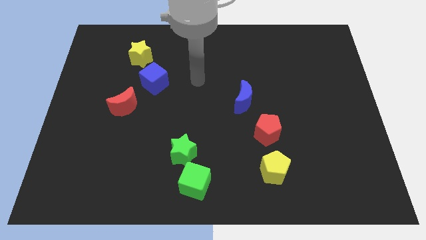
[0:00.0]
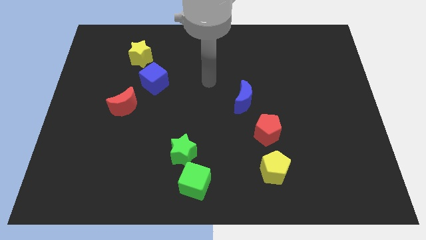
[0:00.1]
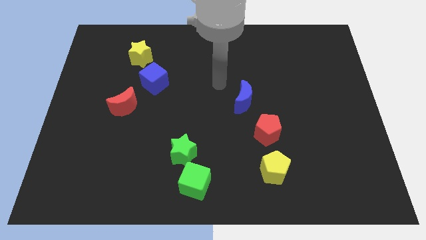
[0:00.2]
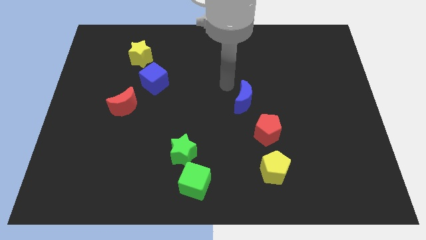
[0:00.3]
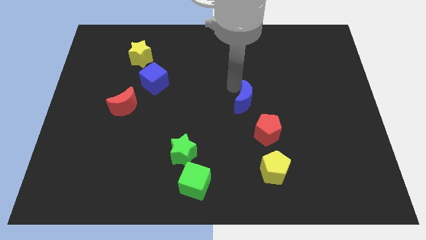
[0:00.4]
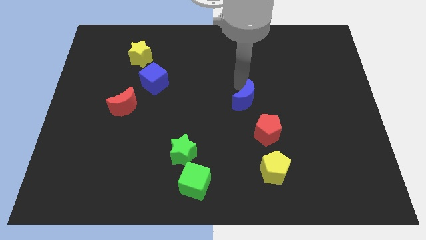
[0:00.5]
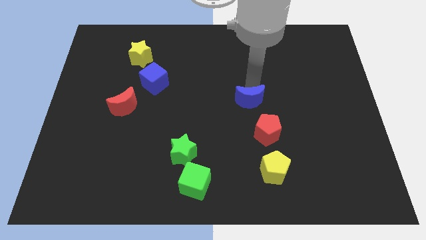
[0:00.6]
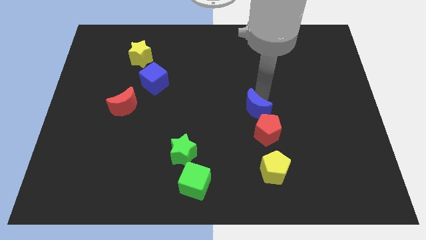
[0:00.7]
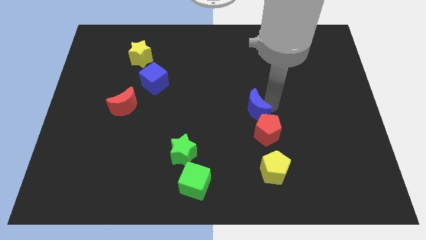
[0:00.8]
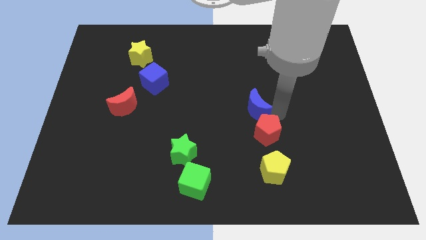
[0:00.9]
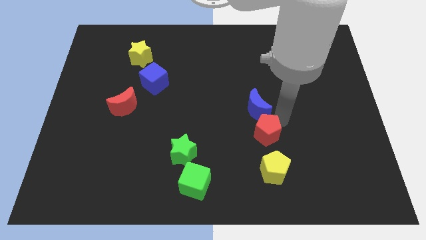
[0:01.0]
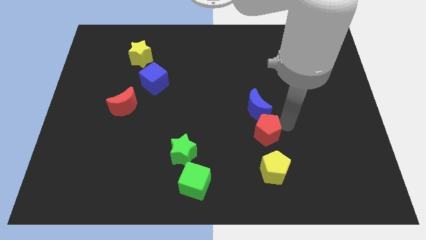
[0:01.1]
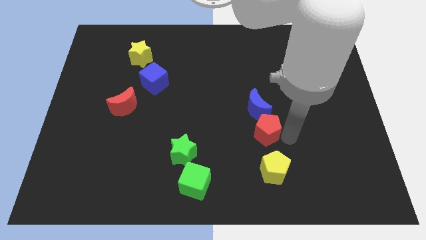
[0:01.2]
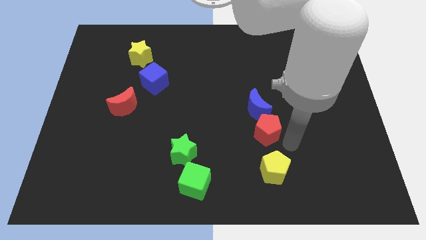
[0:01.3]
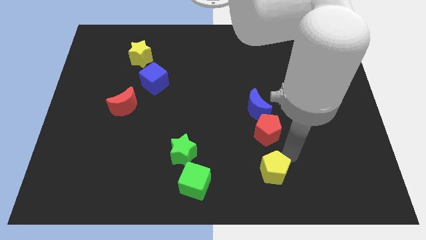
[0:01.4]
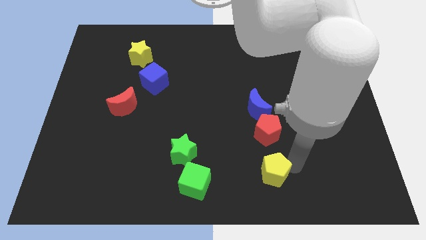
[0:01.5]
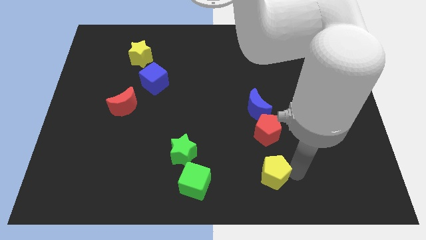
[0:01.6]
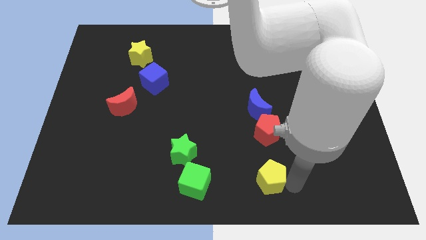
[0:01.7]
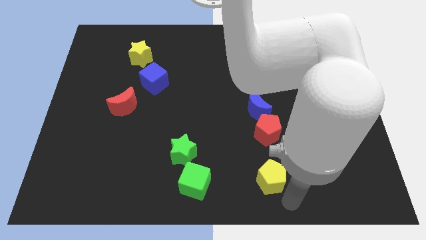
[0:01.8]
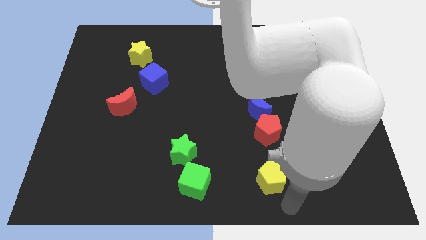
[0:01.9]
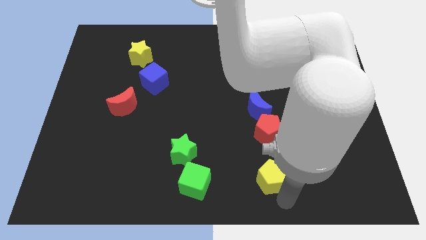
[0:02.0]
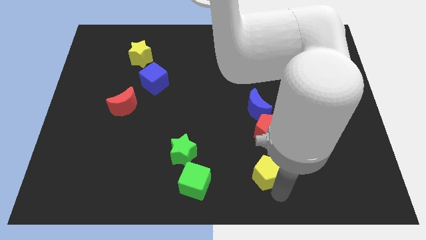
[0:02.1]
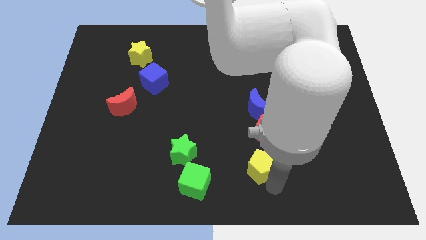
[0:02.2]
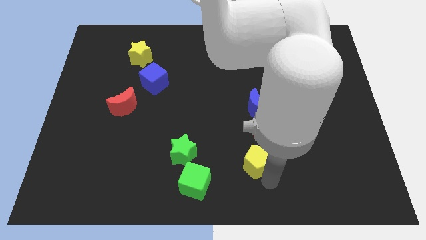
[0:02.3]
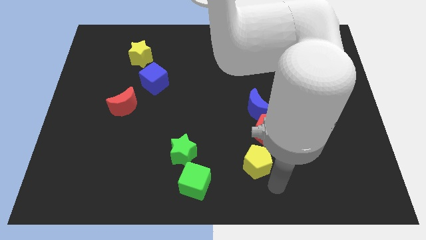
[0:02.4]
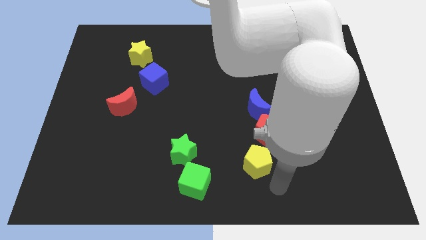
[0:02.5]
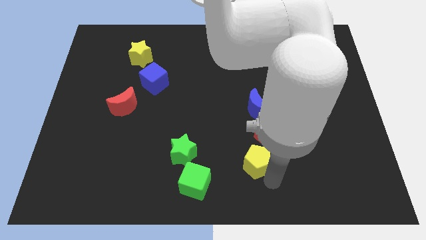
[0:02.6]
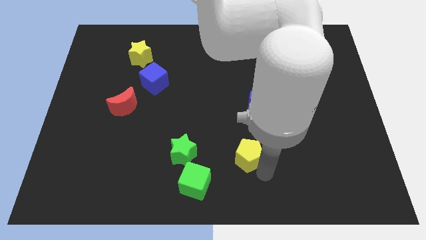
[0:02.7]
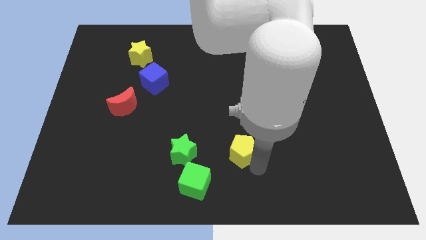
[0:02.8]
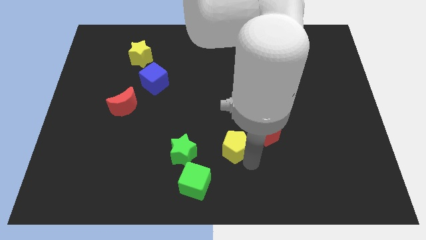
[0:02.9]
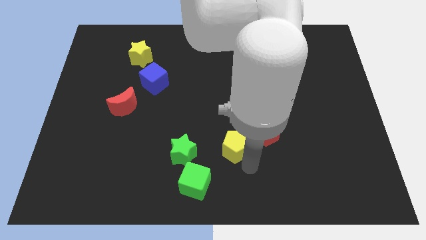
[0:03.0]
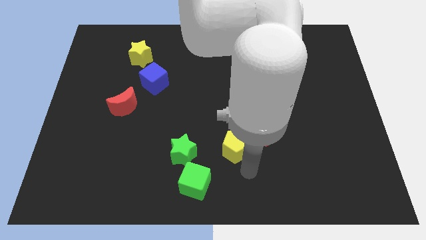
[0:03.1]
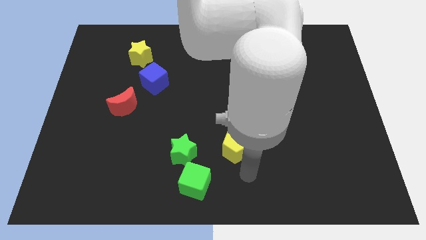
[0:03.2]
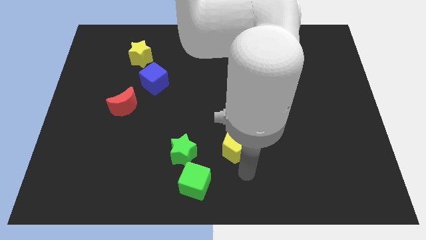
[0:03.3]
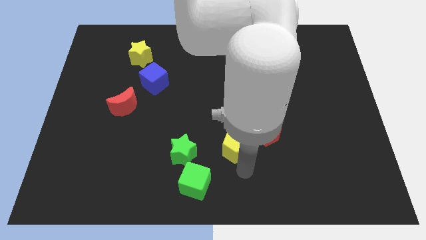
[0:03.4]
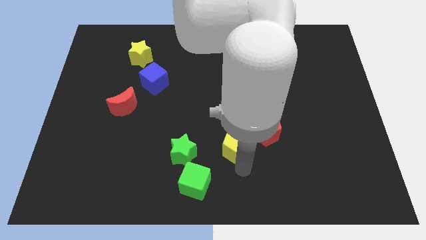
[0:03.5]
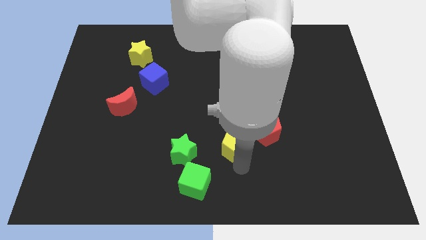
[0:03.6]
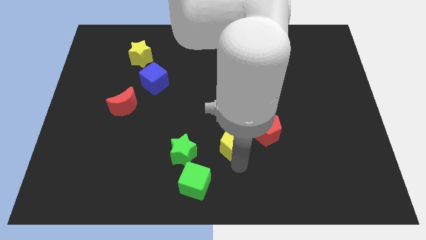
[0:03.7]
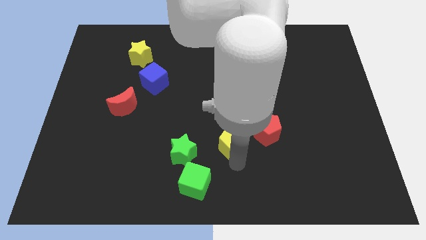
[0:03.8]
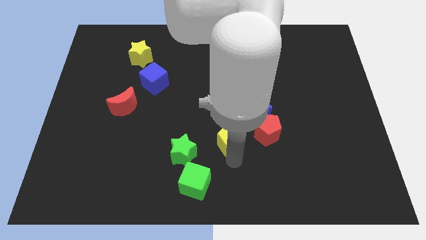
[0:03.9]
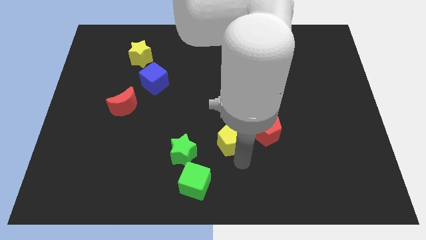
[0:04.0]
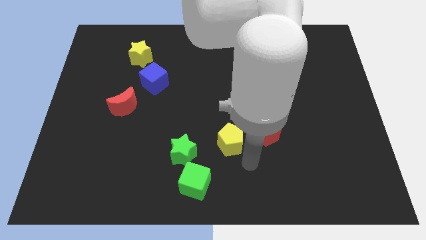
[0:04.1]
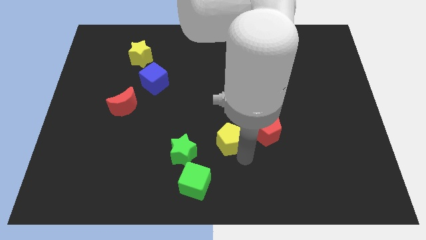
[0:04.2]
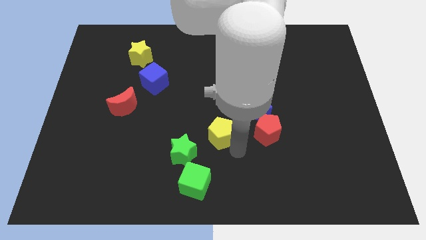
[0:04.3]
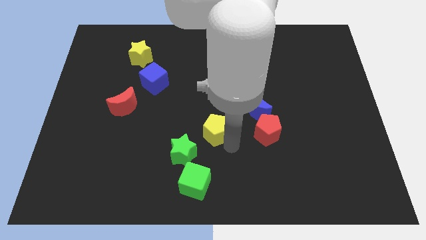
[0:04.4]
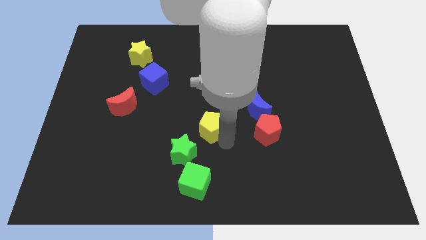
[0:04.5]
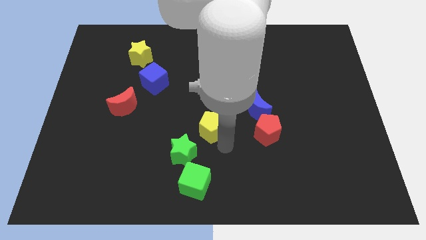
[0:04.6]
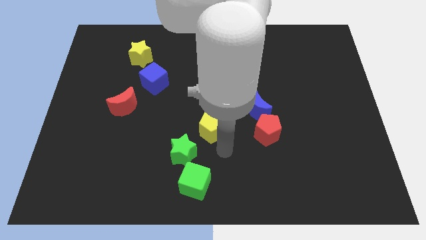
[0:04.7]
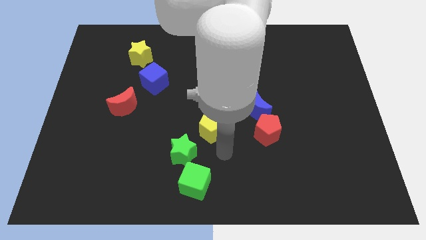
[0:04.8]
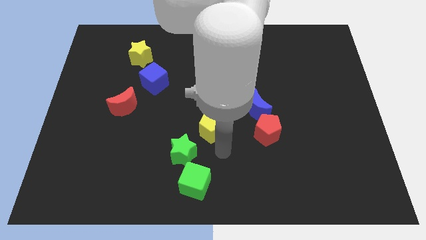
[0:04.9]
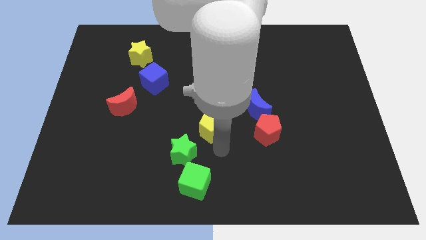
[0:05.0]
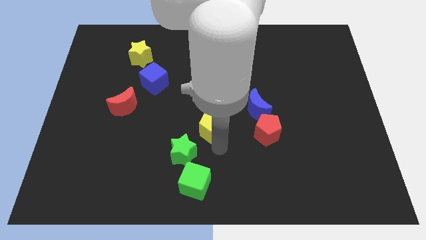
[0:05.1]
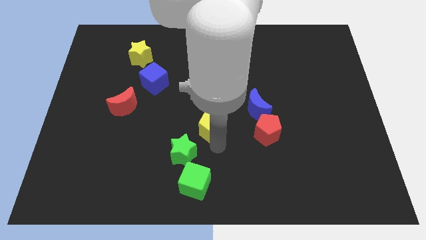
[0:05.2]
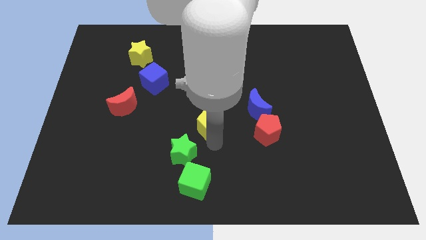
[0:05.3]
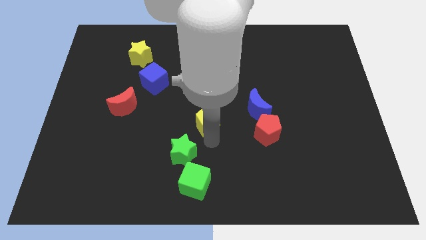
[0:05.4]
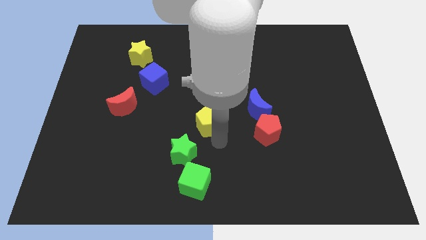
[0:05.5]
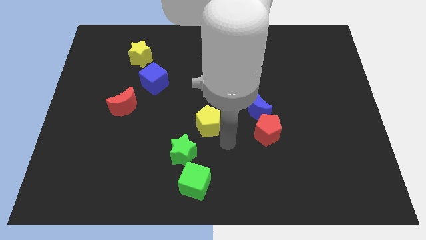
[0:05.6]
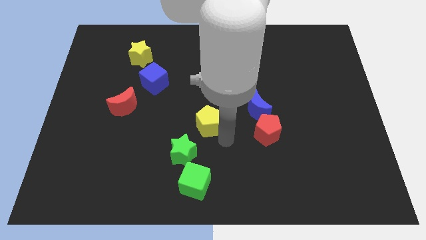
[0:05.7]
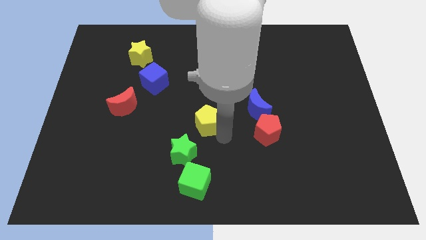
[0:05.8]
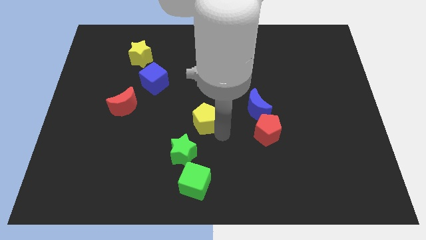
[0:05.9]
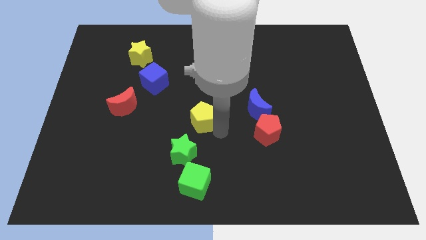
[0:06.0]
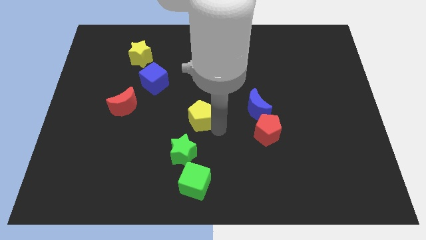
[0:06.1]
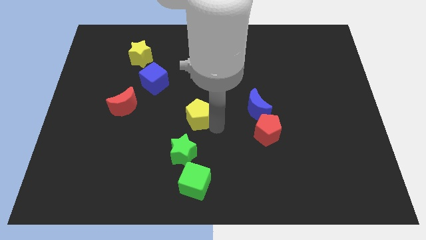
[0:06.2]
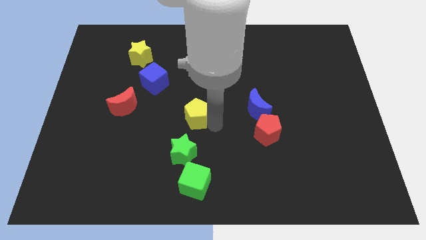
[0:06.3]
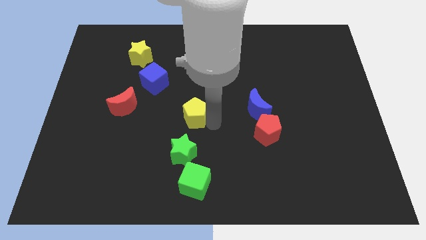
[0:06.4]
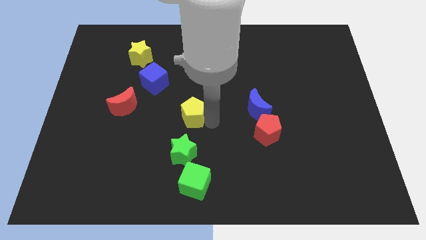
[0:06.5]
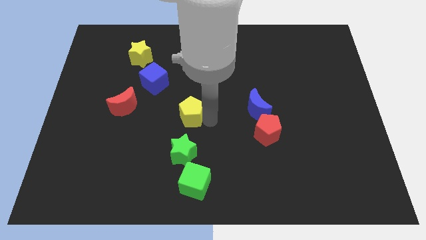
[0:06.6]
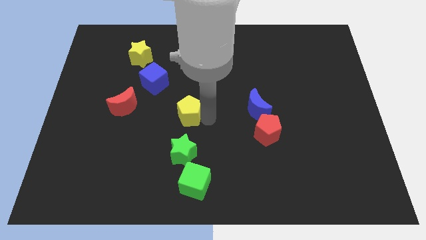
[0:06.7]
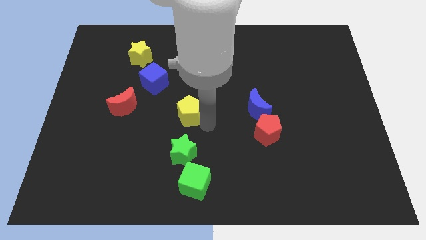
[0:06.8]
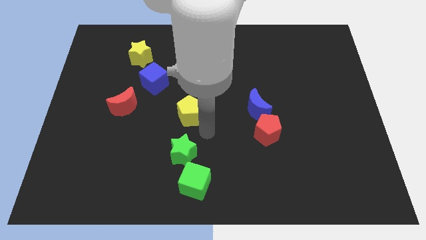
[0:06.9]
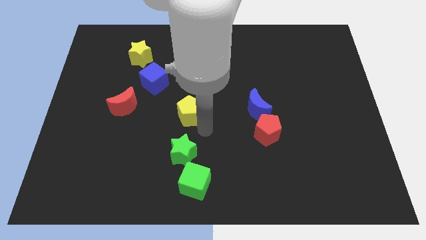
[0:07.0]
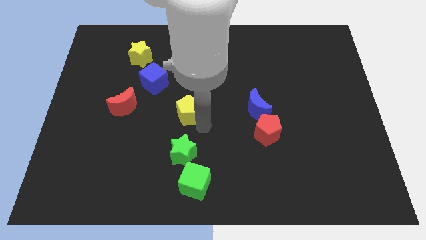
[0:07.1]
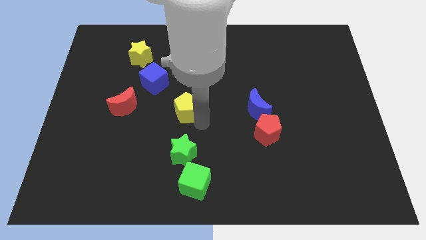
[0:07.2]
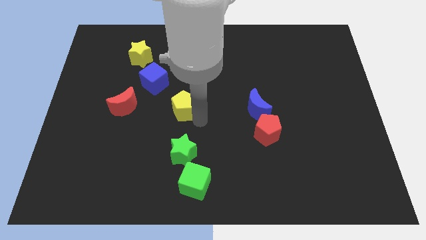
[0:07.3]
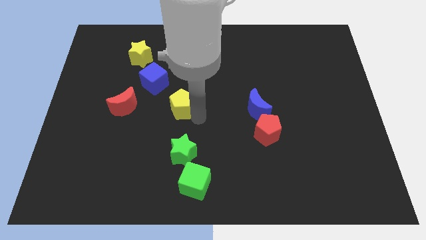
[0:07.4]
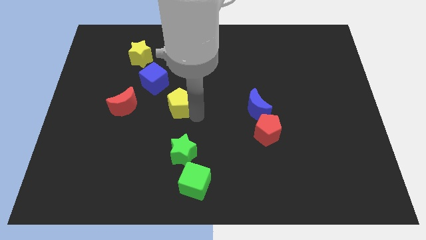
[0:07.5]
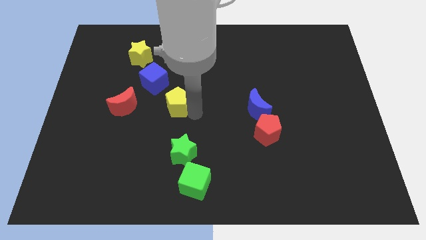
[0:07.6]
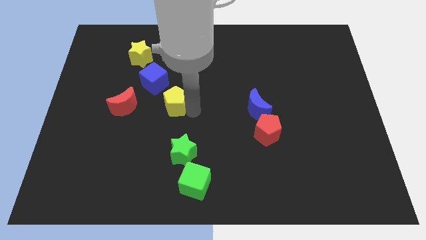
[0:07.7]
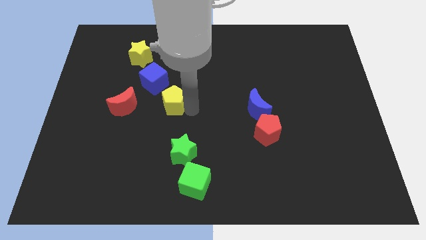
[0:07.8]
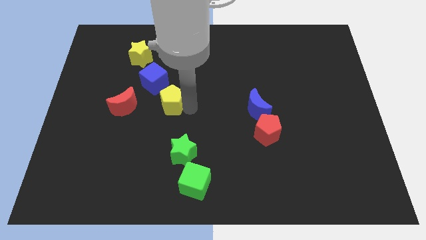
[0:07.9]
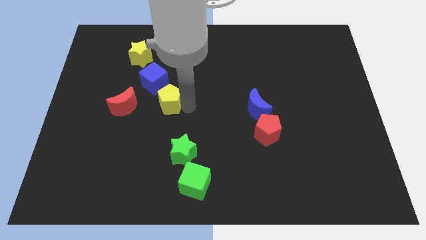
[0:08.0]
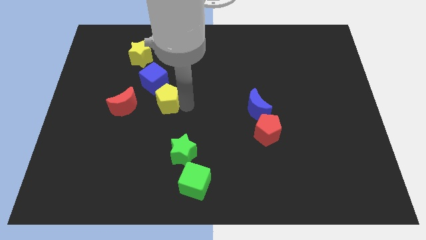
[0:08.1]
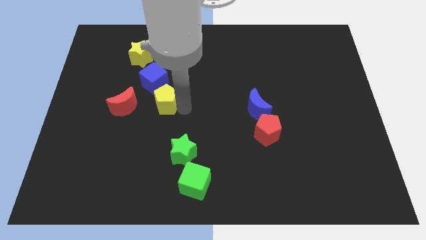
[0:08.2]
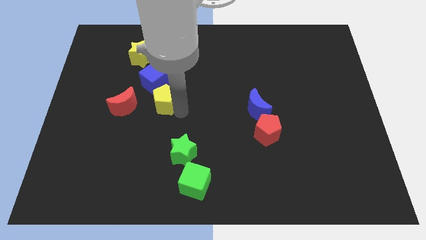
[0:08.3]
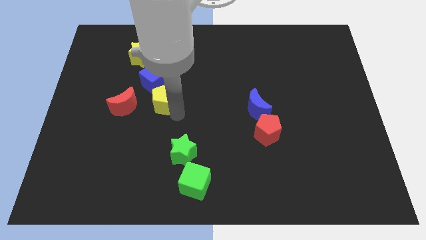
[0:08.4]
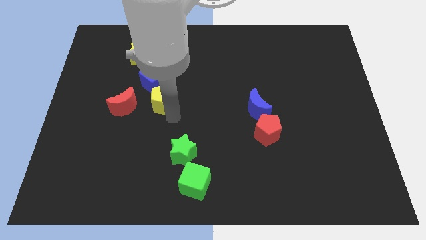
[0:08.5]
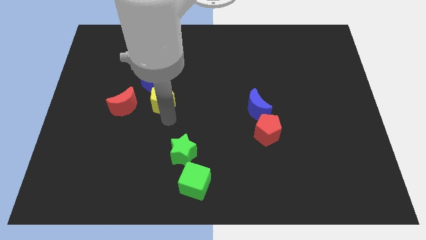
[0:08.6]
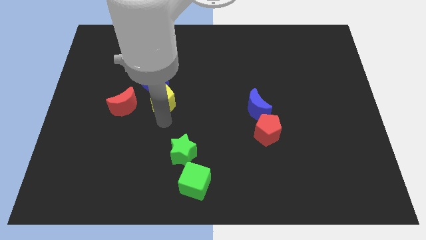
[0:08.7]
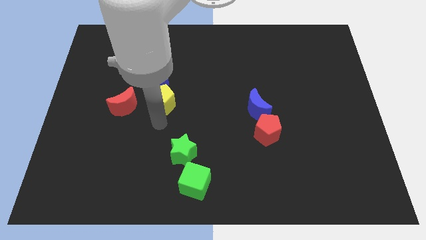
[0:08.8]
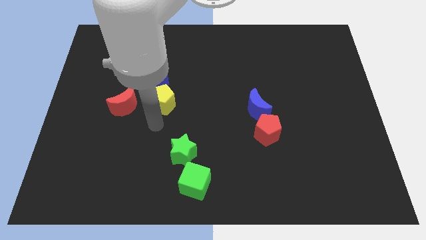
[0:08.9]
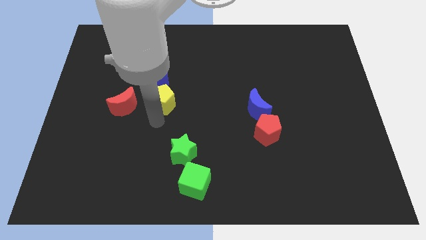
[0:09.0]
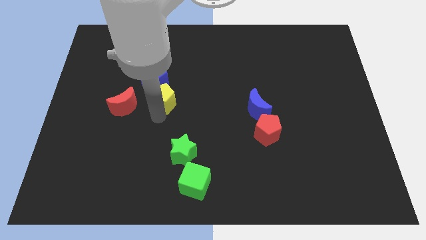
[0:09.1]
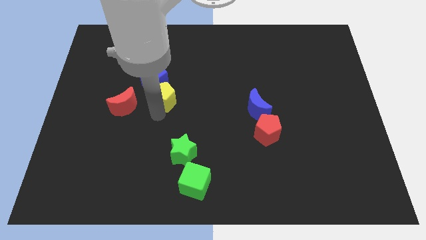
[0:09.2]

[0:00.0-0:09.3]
push the yellow pentagon next to the blue cube
